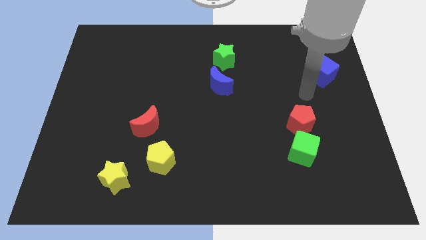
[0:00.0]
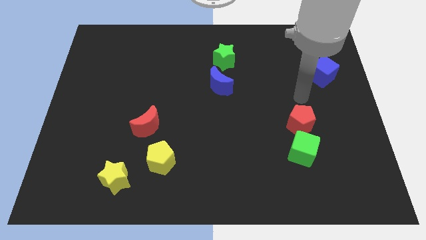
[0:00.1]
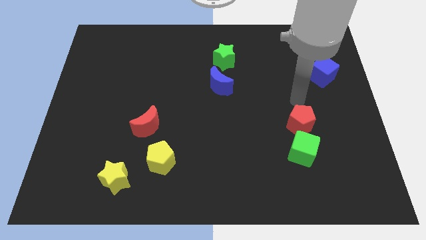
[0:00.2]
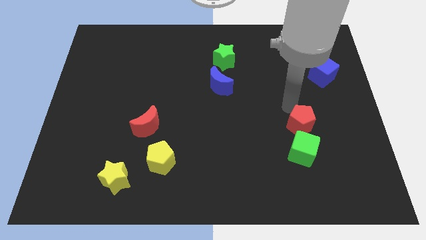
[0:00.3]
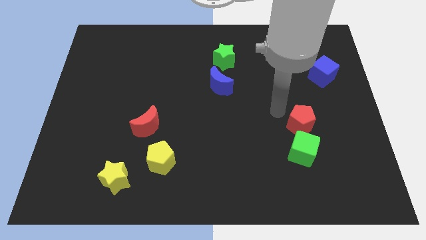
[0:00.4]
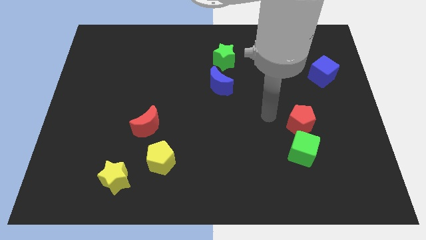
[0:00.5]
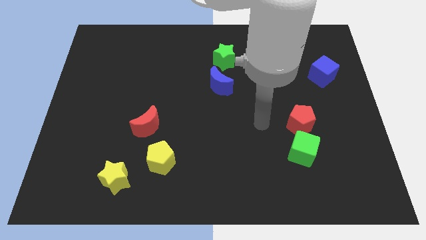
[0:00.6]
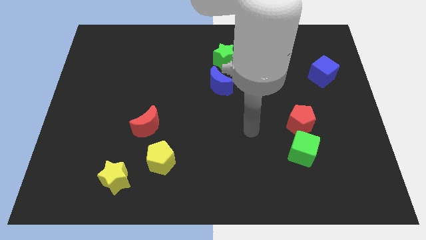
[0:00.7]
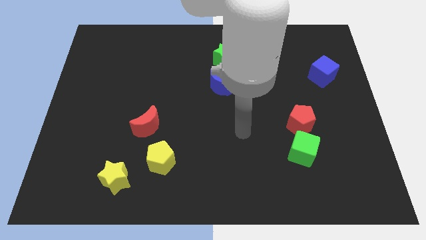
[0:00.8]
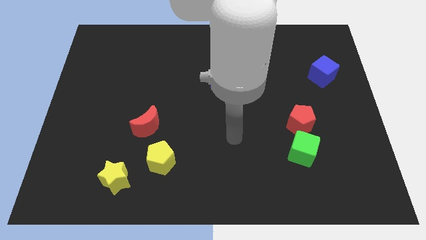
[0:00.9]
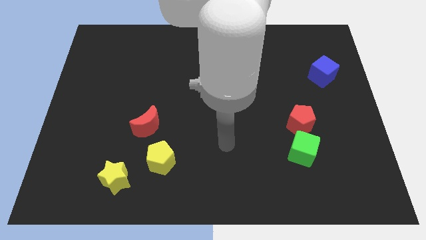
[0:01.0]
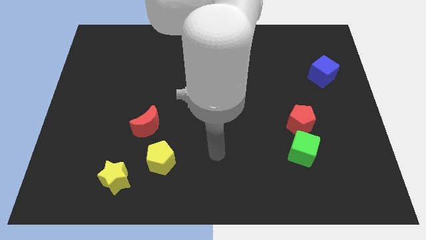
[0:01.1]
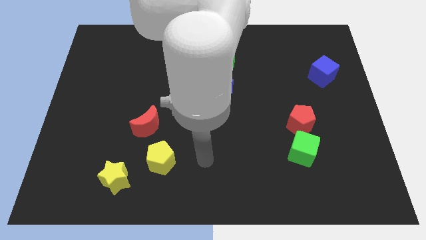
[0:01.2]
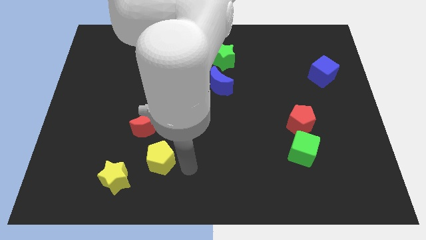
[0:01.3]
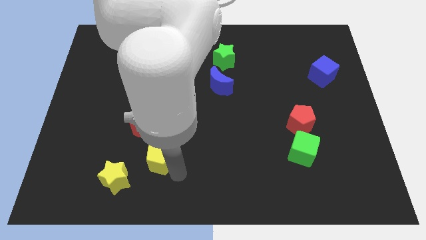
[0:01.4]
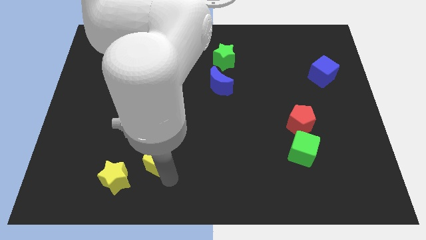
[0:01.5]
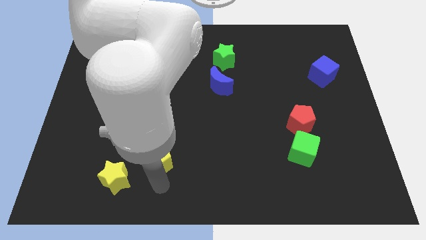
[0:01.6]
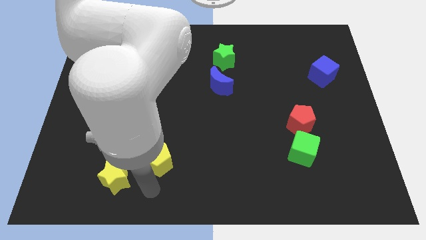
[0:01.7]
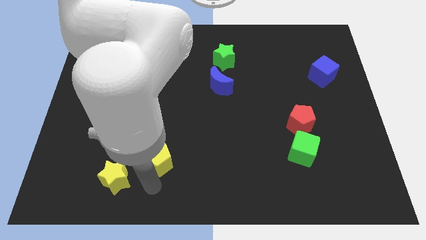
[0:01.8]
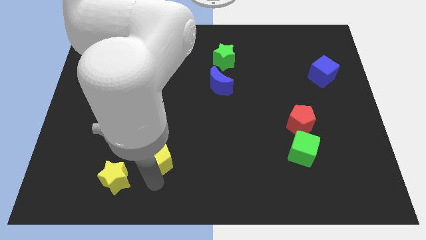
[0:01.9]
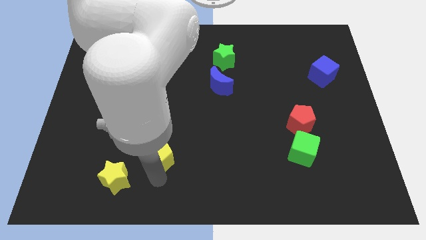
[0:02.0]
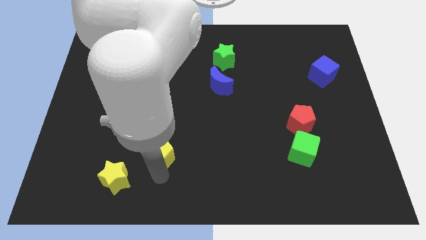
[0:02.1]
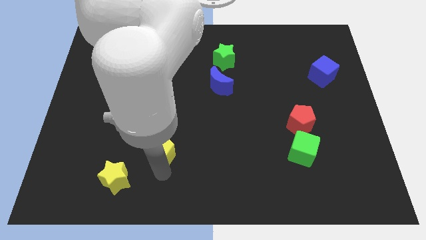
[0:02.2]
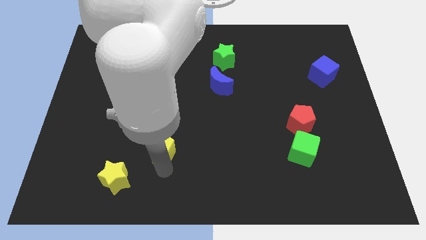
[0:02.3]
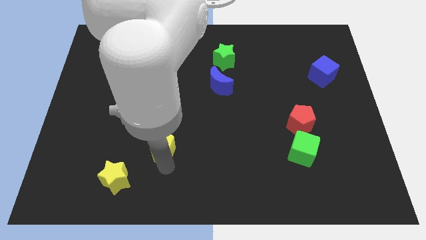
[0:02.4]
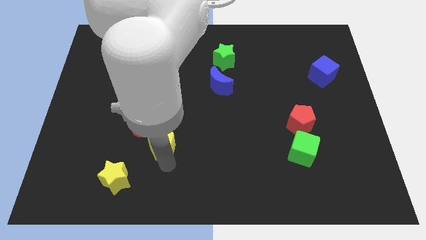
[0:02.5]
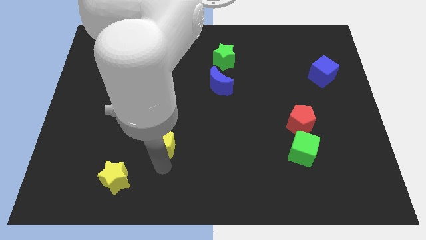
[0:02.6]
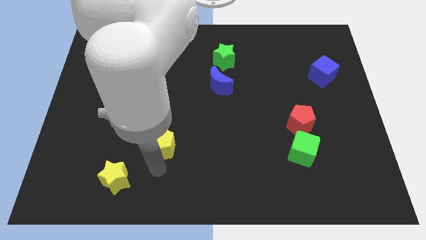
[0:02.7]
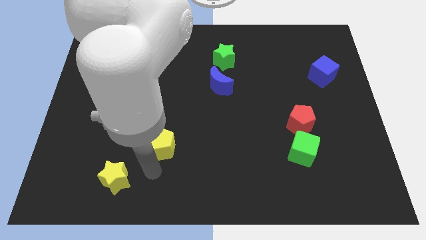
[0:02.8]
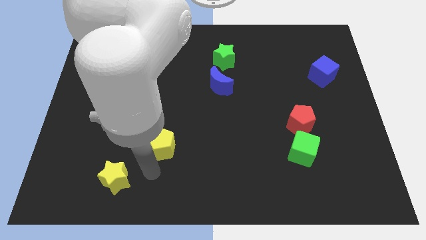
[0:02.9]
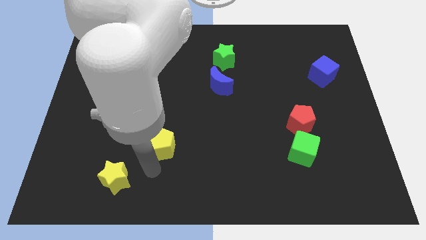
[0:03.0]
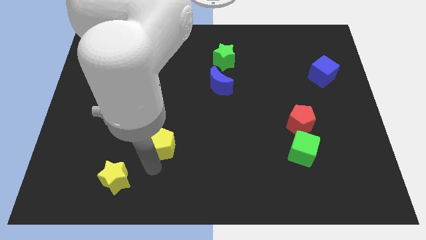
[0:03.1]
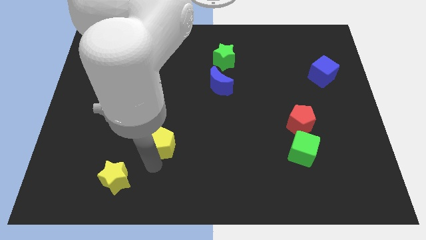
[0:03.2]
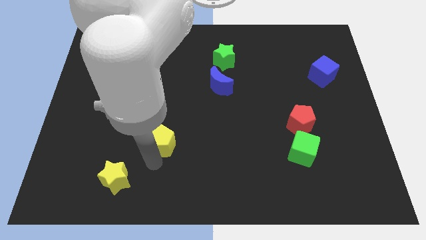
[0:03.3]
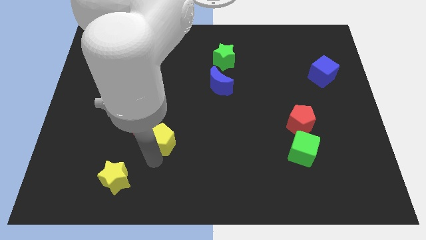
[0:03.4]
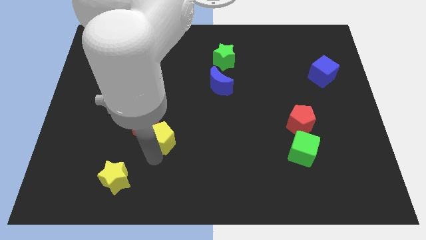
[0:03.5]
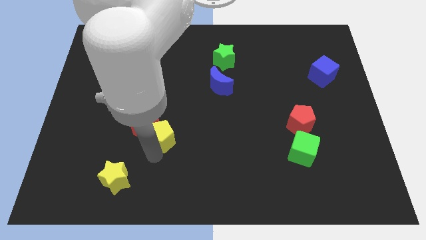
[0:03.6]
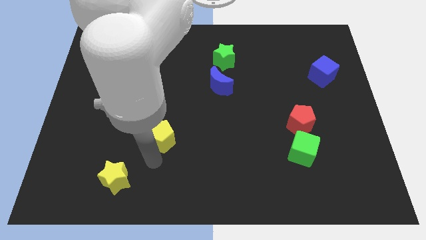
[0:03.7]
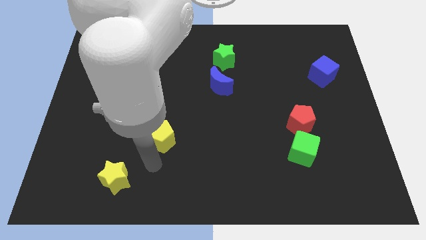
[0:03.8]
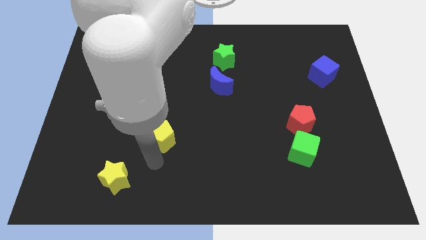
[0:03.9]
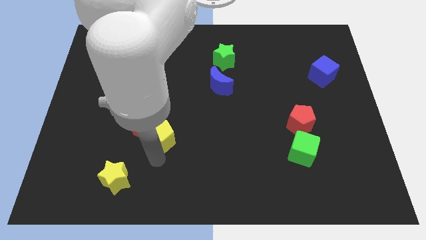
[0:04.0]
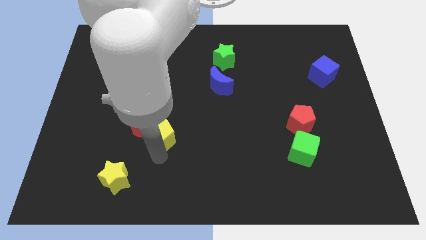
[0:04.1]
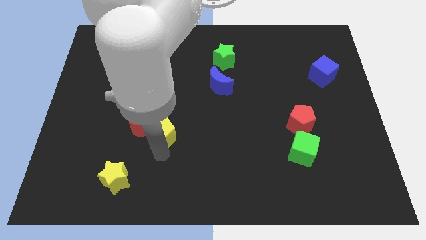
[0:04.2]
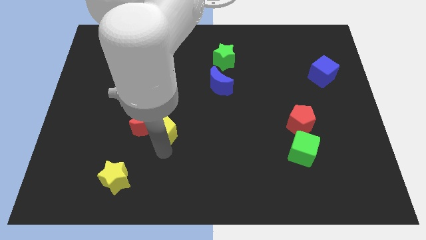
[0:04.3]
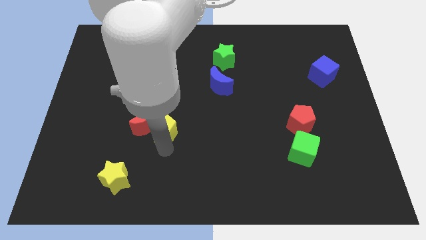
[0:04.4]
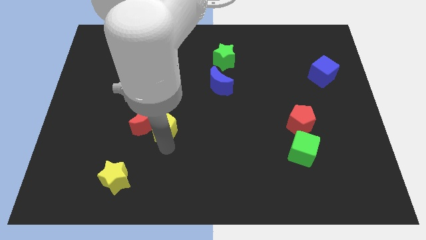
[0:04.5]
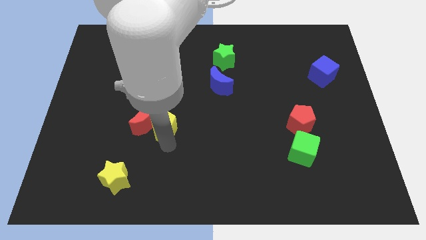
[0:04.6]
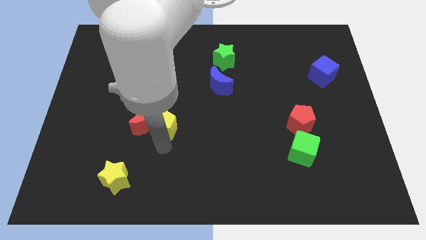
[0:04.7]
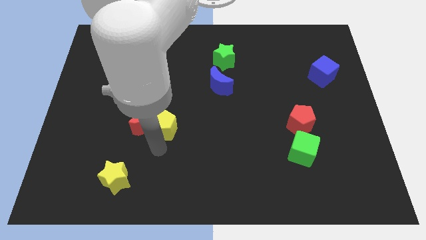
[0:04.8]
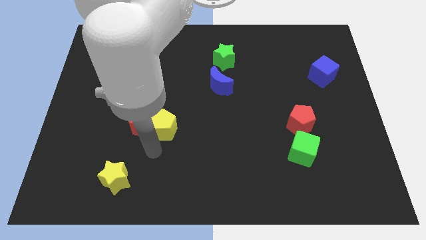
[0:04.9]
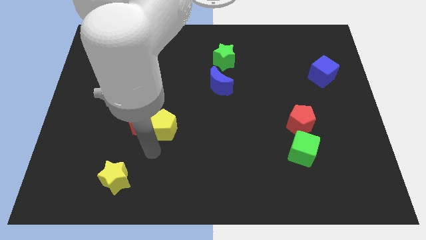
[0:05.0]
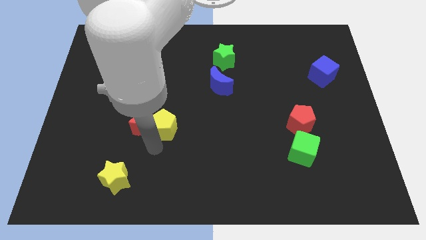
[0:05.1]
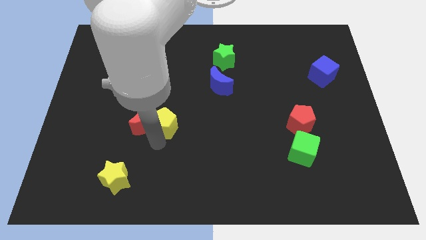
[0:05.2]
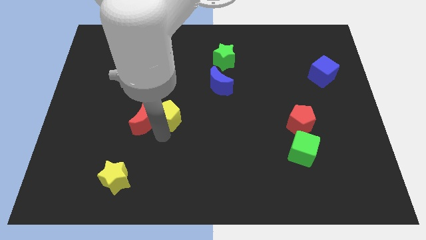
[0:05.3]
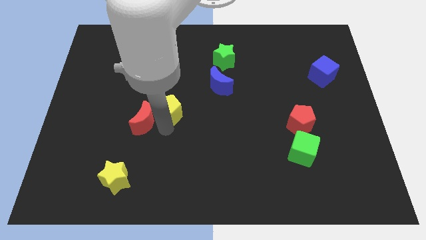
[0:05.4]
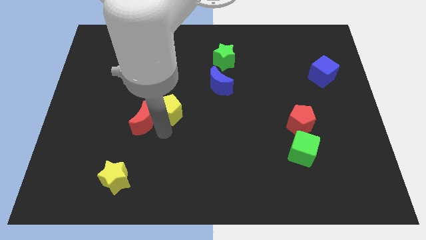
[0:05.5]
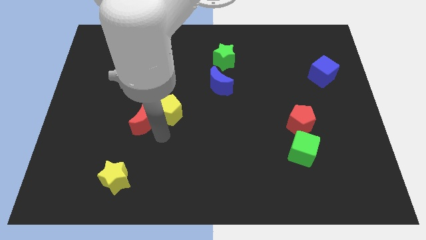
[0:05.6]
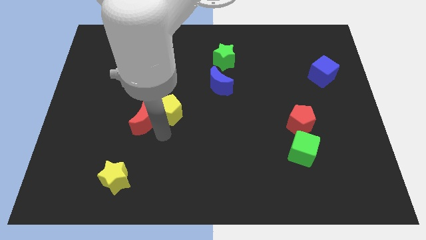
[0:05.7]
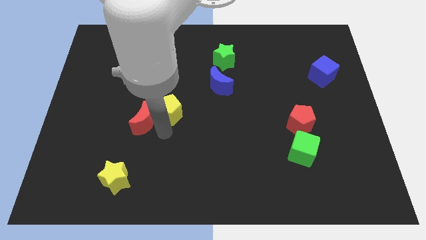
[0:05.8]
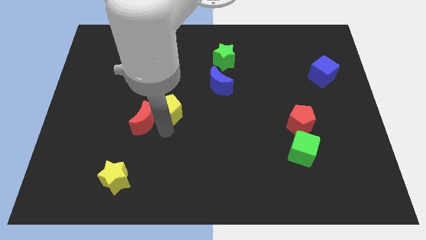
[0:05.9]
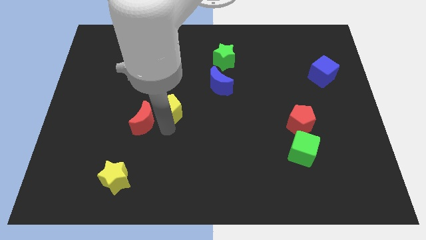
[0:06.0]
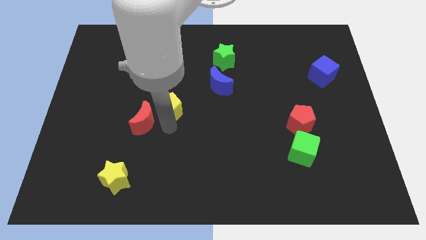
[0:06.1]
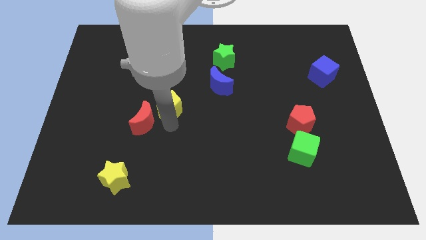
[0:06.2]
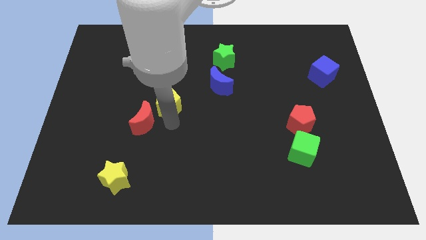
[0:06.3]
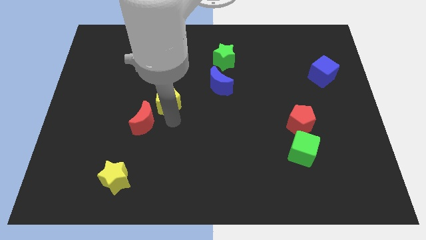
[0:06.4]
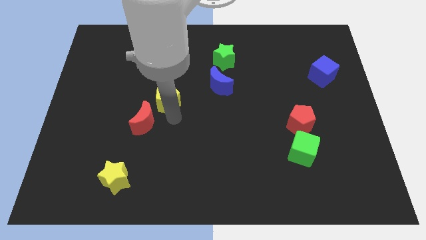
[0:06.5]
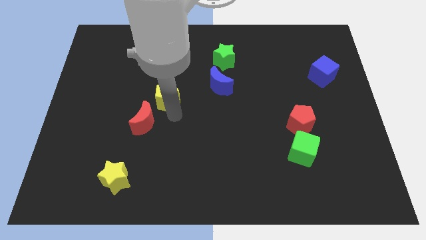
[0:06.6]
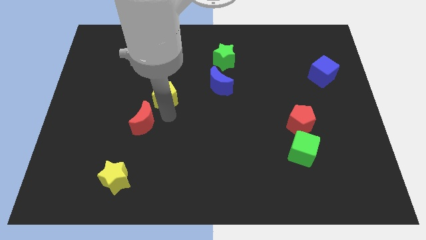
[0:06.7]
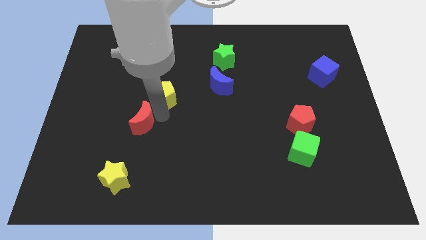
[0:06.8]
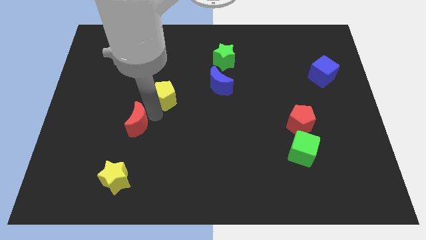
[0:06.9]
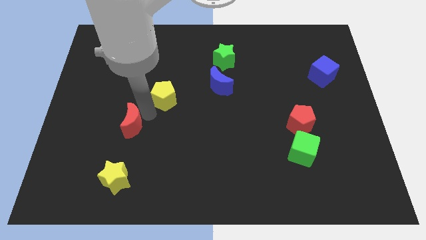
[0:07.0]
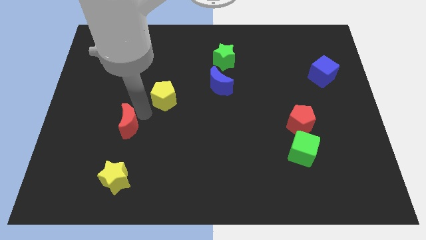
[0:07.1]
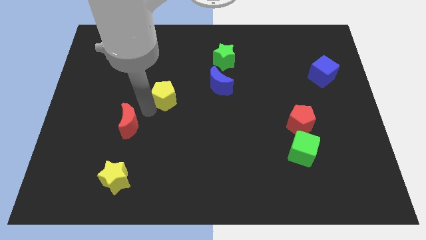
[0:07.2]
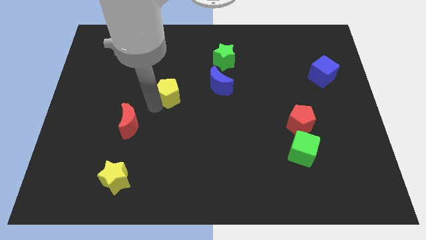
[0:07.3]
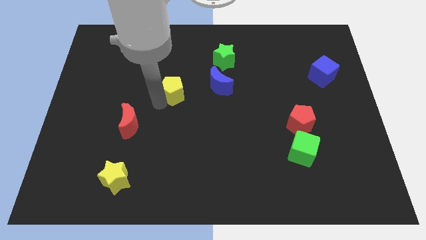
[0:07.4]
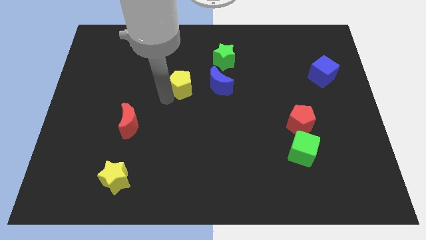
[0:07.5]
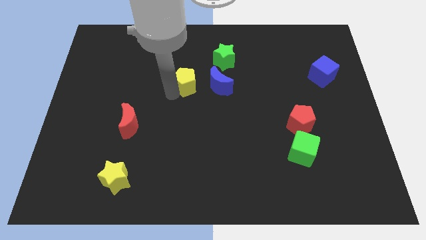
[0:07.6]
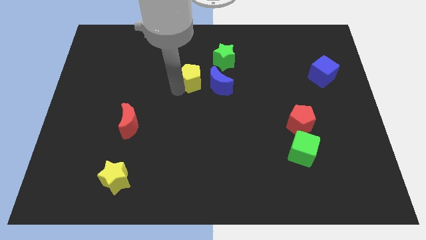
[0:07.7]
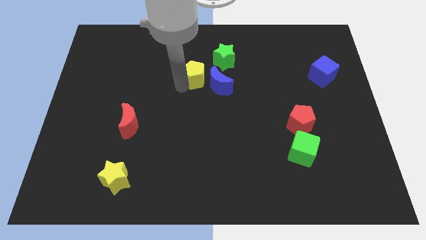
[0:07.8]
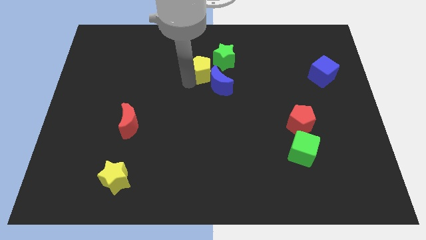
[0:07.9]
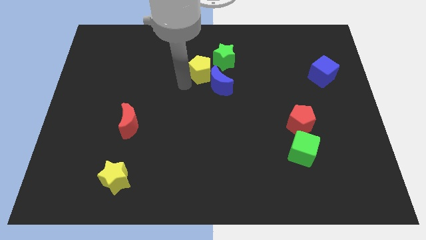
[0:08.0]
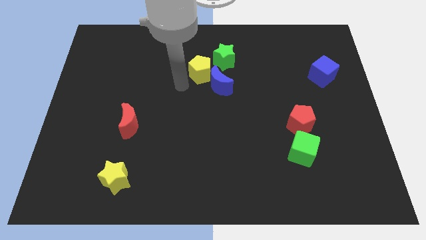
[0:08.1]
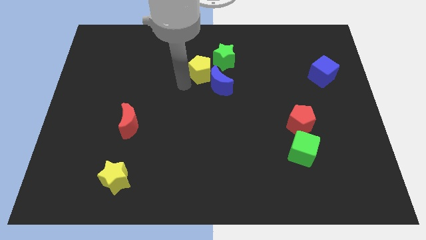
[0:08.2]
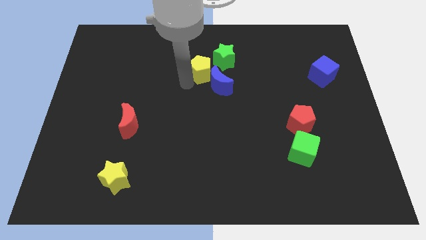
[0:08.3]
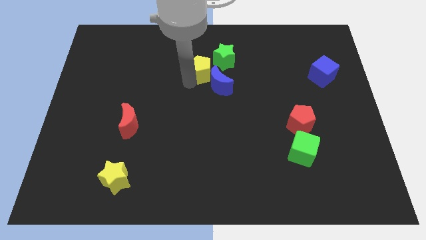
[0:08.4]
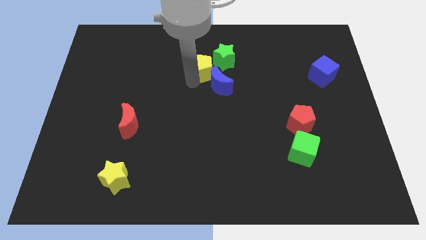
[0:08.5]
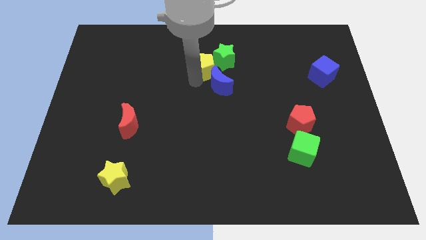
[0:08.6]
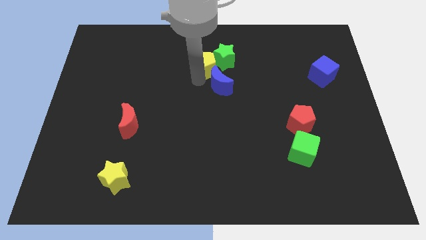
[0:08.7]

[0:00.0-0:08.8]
move the yellow pentagon to the green star
